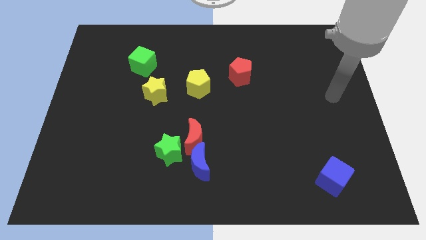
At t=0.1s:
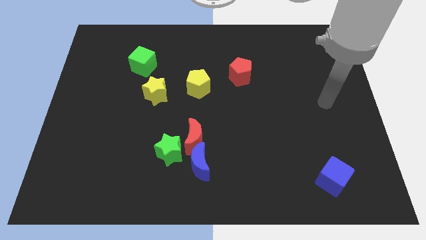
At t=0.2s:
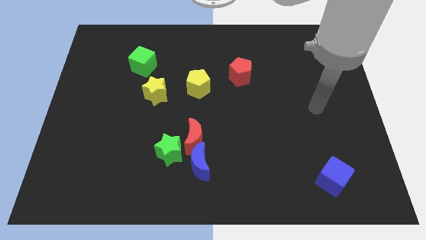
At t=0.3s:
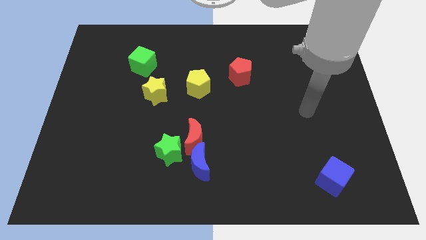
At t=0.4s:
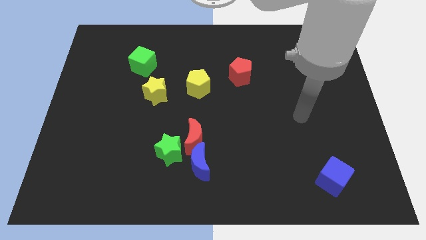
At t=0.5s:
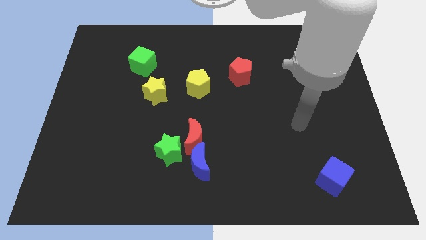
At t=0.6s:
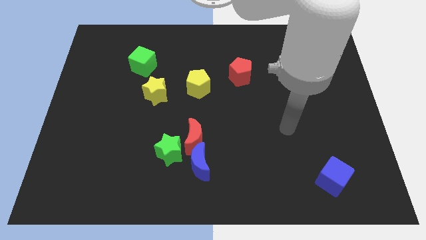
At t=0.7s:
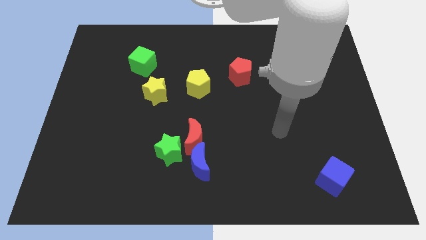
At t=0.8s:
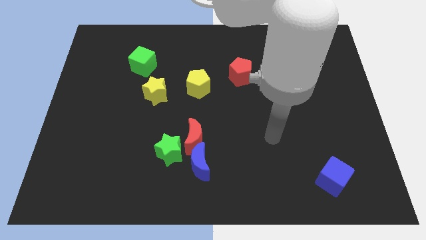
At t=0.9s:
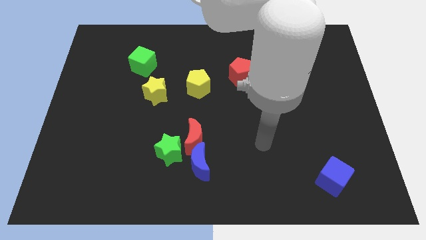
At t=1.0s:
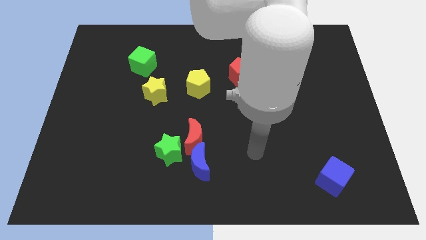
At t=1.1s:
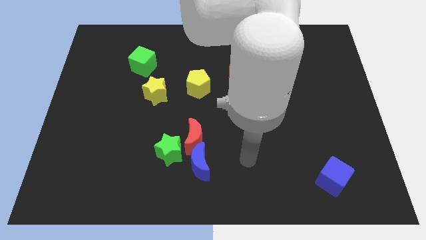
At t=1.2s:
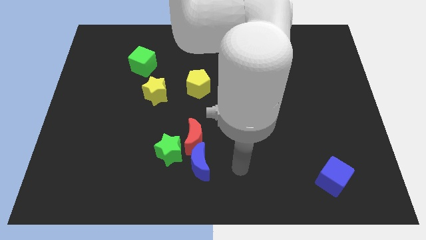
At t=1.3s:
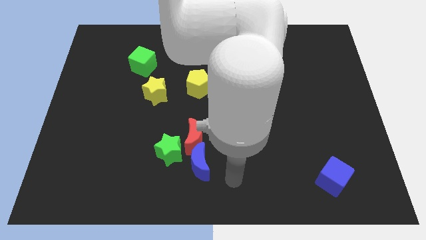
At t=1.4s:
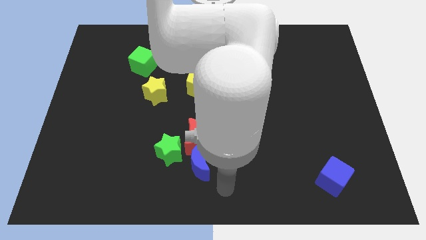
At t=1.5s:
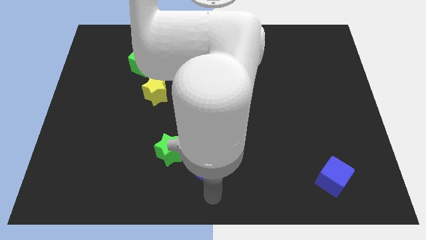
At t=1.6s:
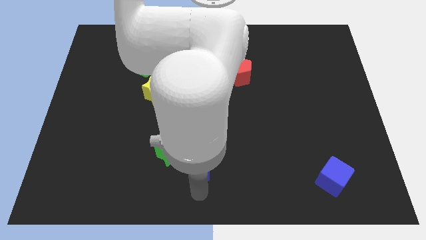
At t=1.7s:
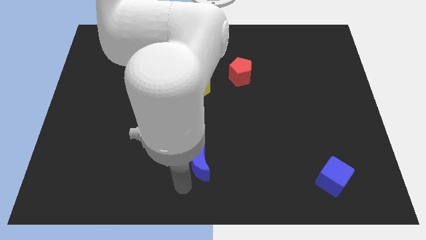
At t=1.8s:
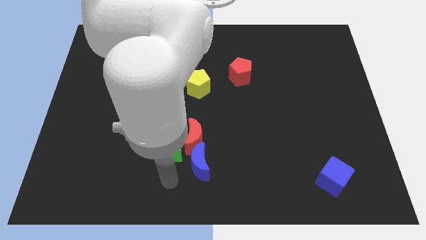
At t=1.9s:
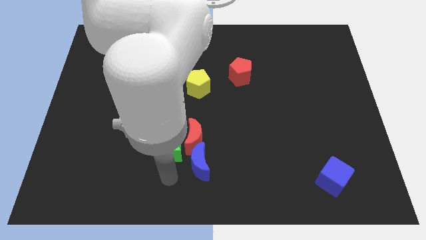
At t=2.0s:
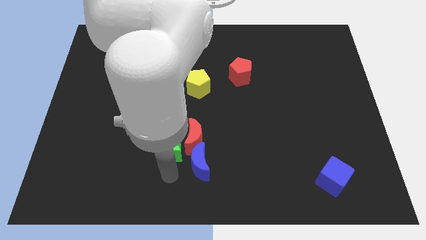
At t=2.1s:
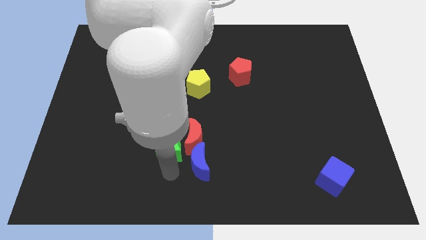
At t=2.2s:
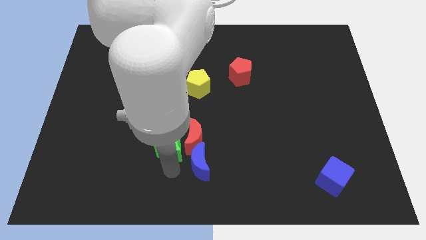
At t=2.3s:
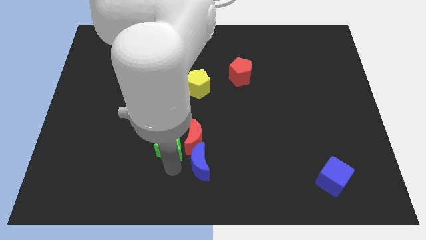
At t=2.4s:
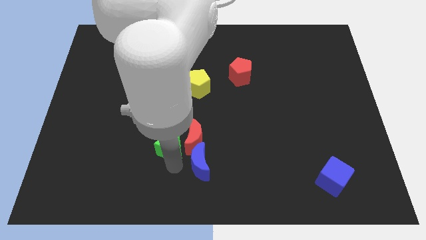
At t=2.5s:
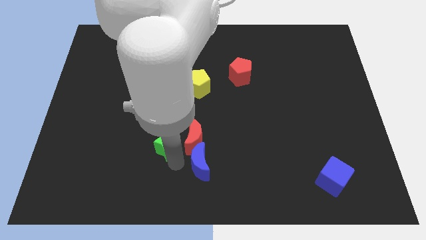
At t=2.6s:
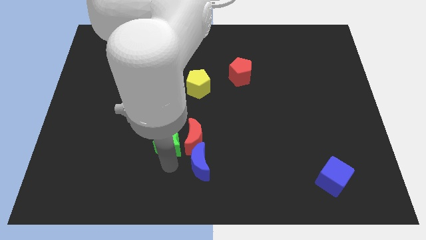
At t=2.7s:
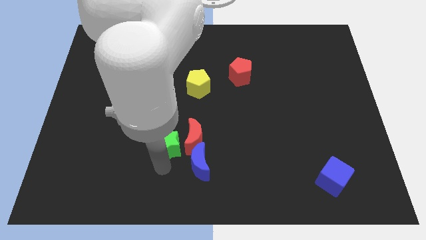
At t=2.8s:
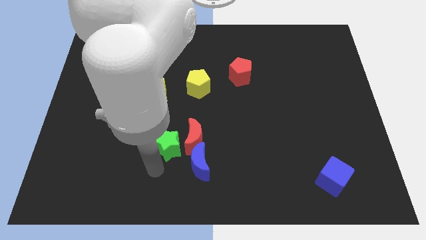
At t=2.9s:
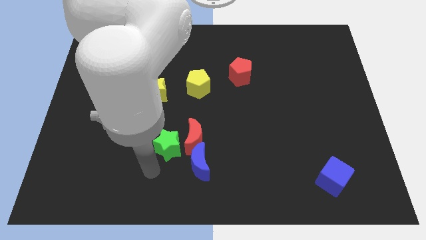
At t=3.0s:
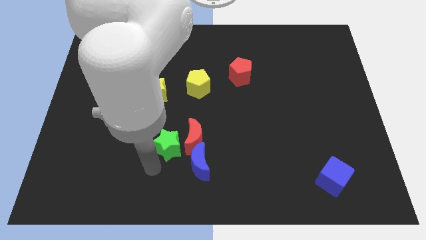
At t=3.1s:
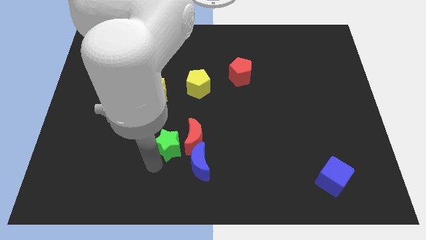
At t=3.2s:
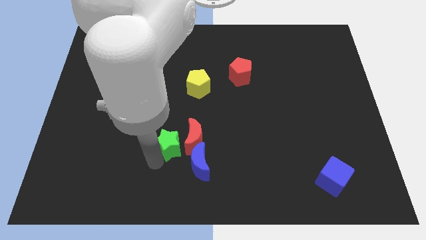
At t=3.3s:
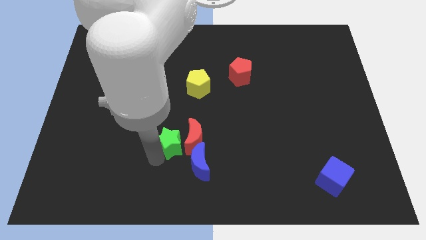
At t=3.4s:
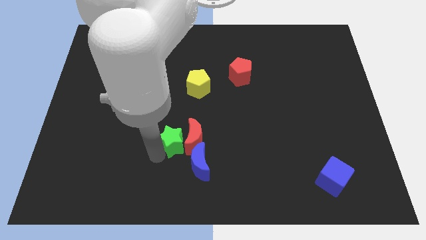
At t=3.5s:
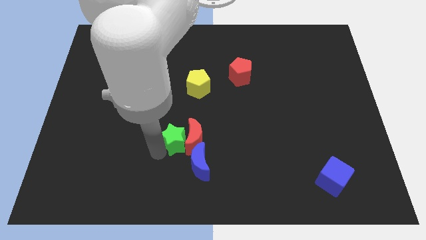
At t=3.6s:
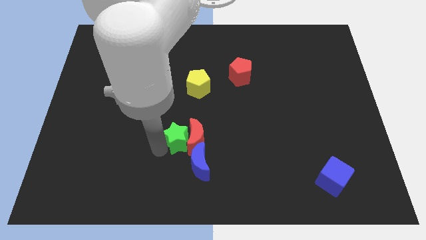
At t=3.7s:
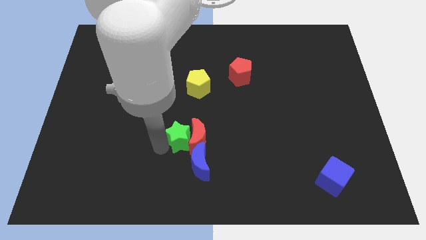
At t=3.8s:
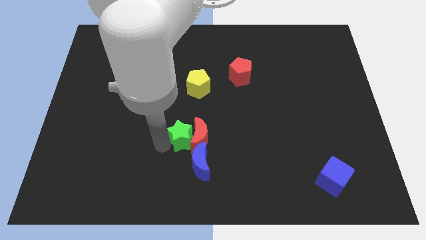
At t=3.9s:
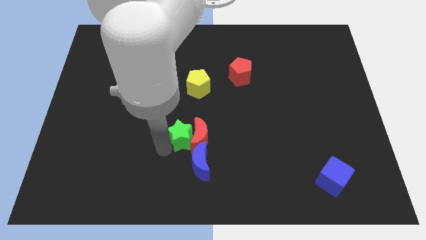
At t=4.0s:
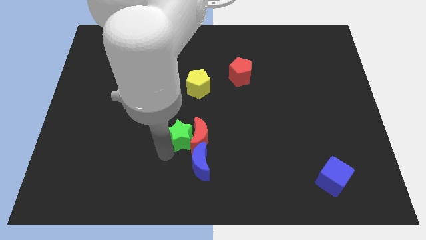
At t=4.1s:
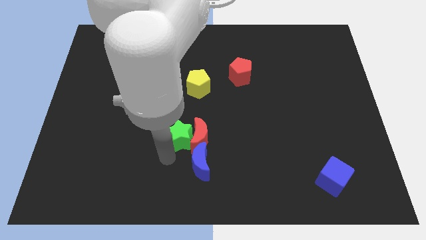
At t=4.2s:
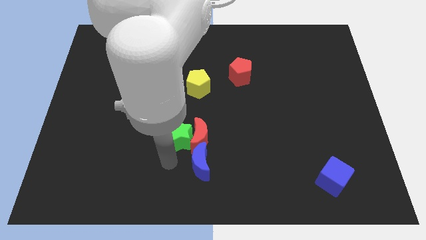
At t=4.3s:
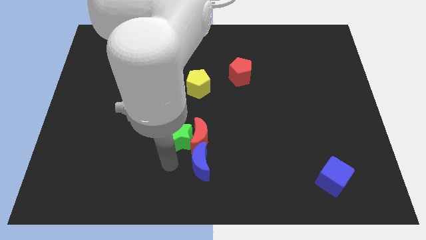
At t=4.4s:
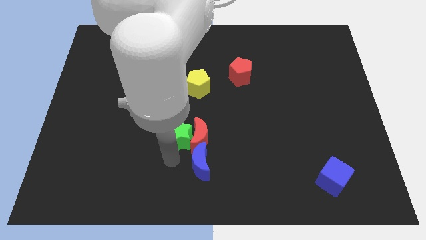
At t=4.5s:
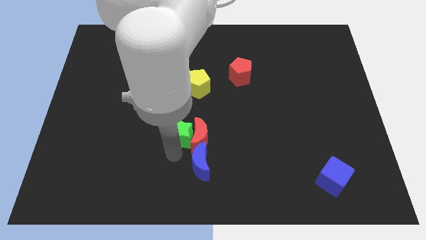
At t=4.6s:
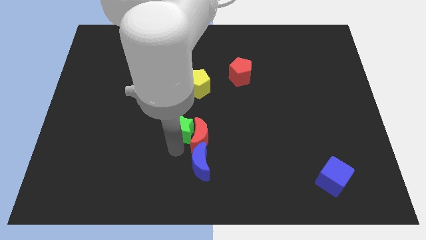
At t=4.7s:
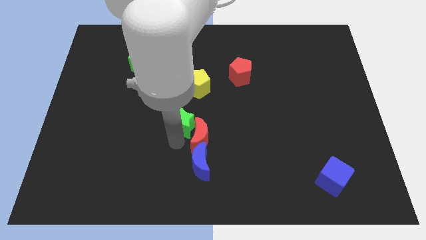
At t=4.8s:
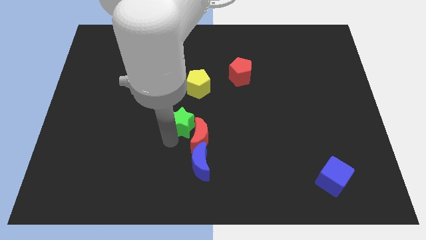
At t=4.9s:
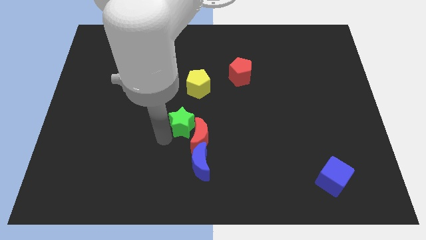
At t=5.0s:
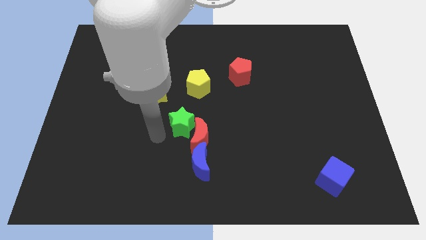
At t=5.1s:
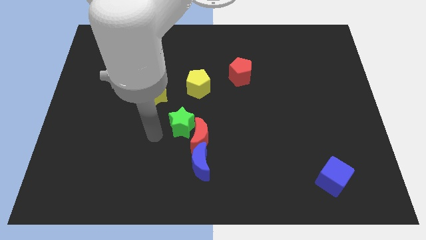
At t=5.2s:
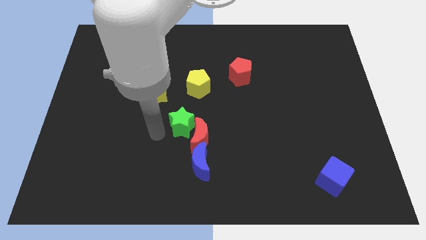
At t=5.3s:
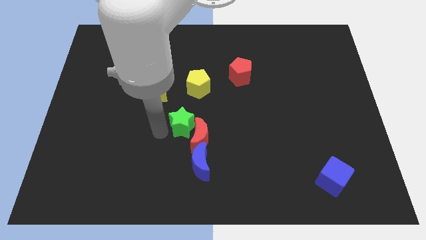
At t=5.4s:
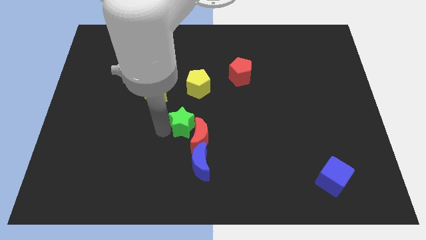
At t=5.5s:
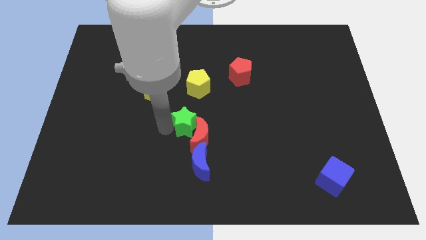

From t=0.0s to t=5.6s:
move the green star a bit upwards and to the right diagonally

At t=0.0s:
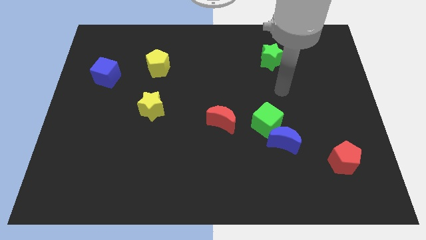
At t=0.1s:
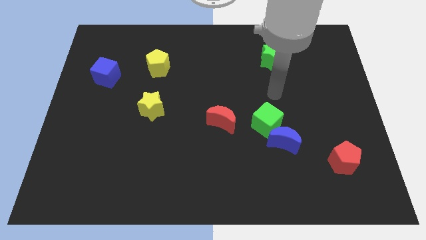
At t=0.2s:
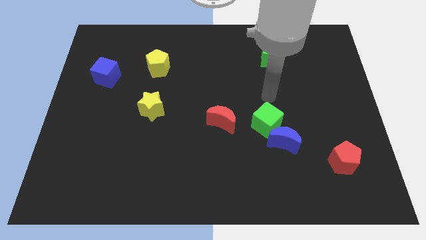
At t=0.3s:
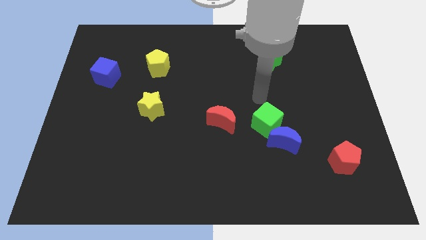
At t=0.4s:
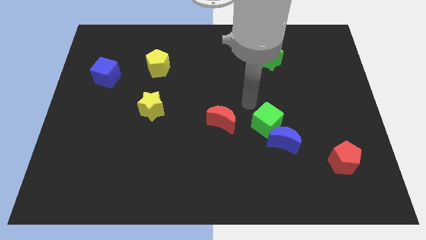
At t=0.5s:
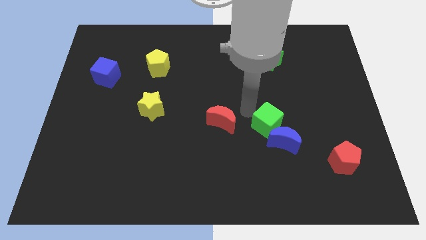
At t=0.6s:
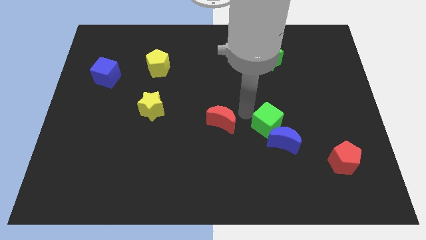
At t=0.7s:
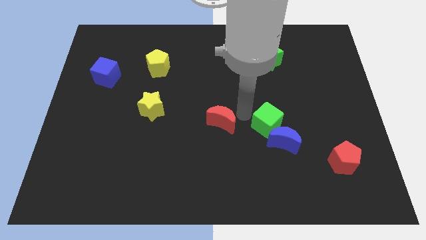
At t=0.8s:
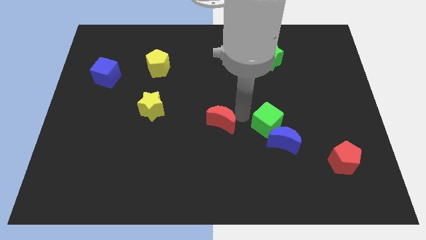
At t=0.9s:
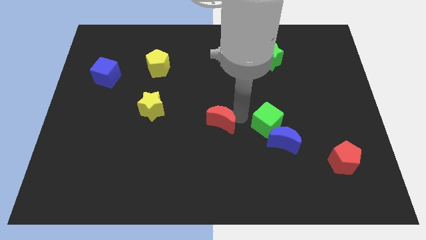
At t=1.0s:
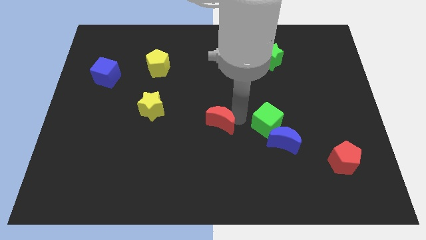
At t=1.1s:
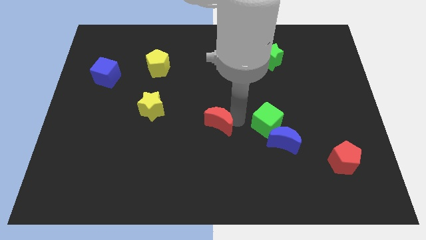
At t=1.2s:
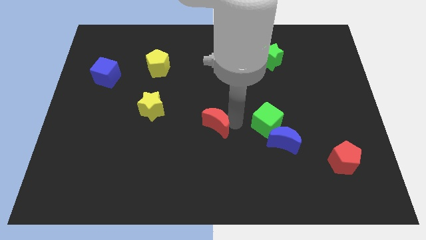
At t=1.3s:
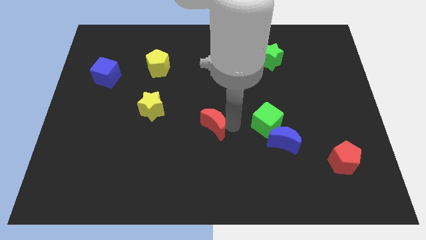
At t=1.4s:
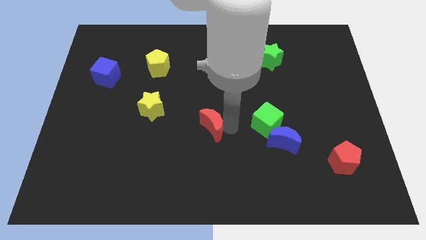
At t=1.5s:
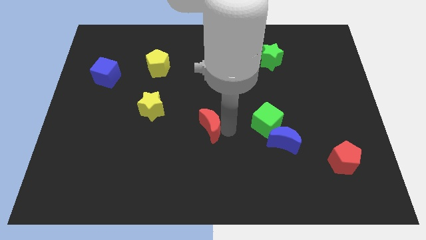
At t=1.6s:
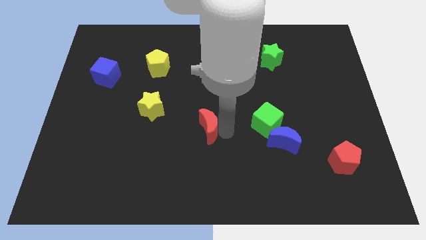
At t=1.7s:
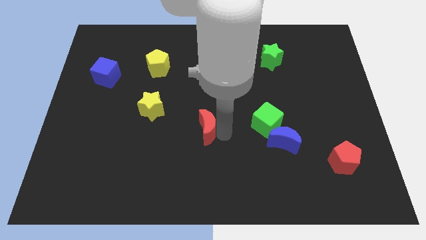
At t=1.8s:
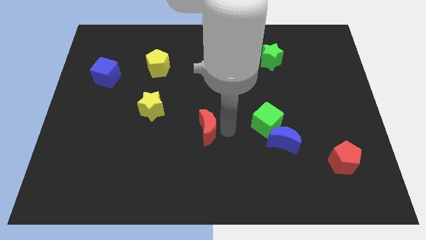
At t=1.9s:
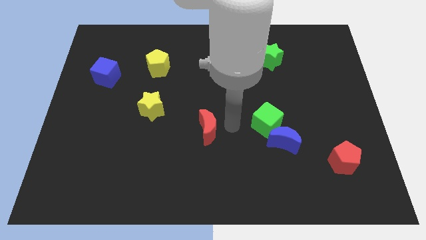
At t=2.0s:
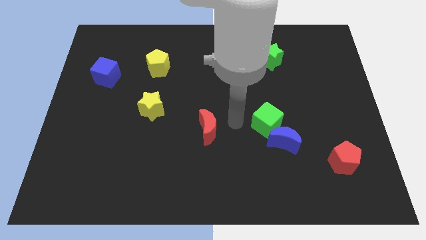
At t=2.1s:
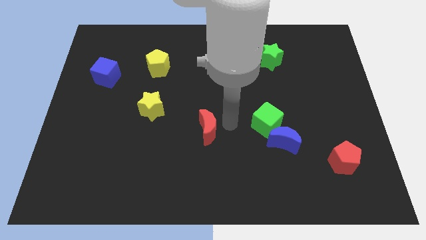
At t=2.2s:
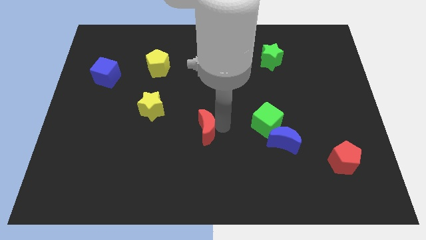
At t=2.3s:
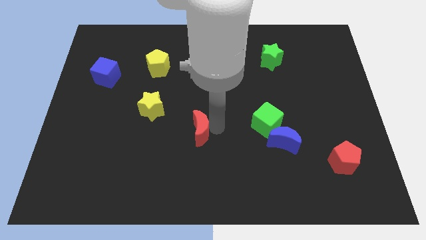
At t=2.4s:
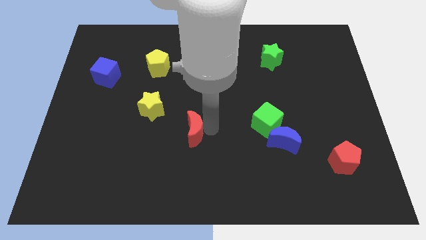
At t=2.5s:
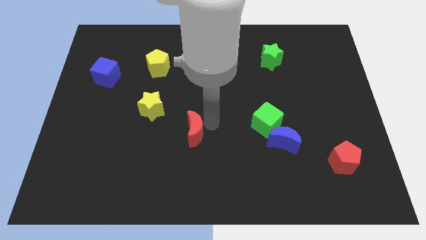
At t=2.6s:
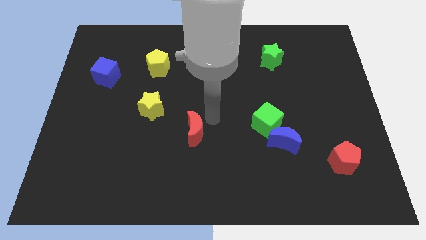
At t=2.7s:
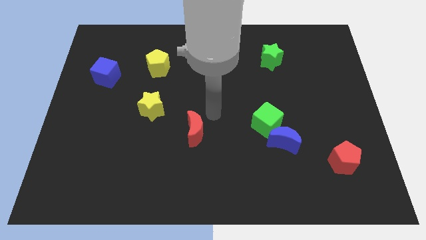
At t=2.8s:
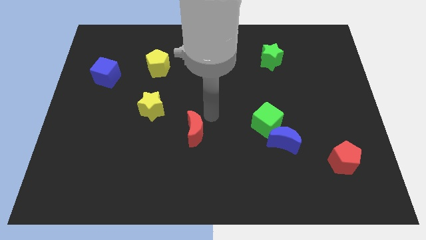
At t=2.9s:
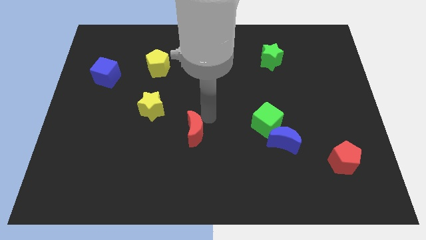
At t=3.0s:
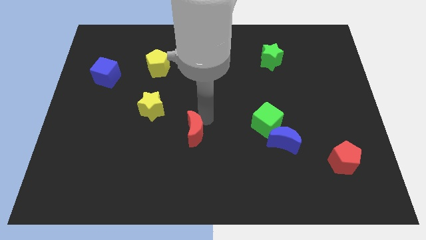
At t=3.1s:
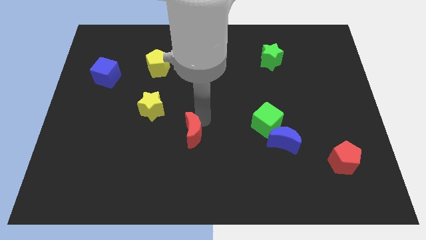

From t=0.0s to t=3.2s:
move the red moon downwards and then left slightly
